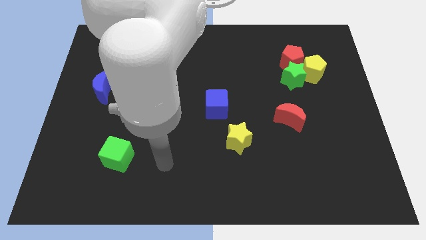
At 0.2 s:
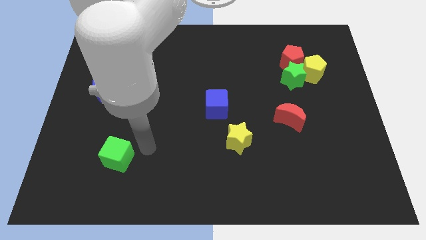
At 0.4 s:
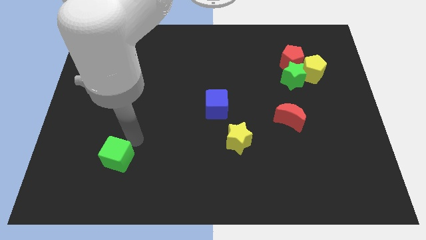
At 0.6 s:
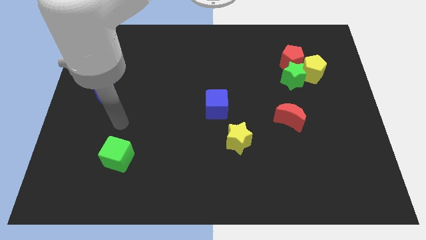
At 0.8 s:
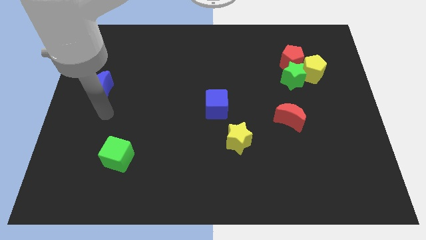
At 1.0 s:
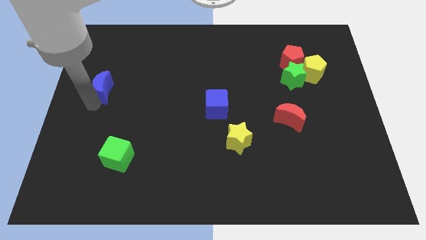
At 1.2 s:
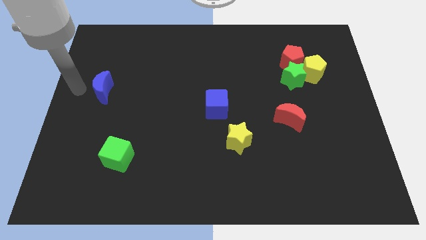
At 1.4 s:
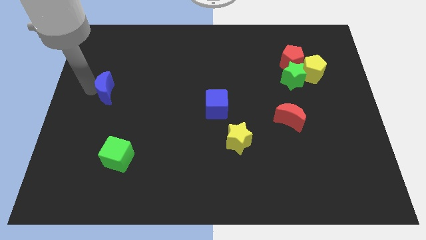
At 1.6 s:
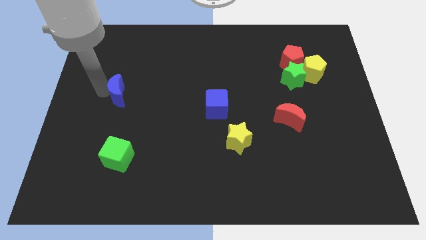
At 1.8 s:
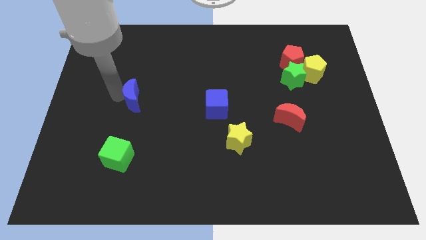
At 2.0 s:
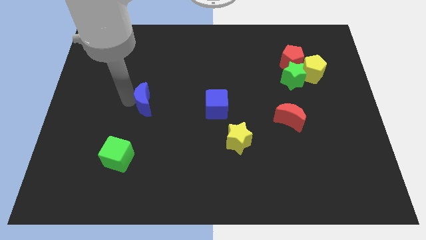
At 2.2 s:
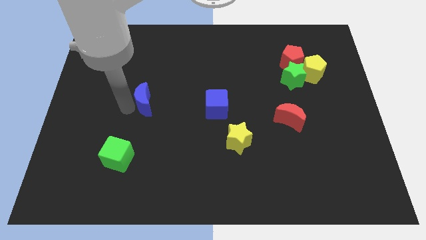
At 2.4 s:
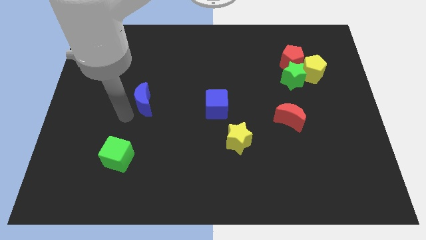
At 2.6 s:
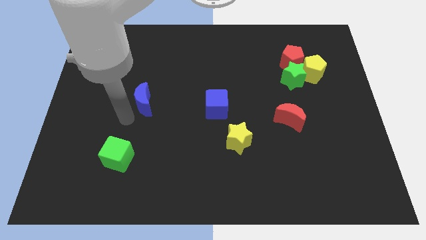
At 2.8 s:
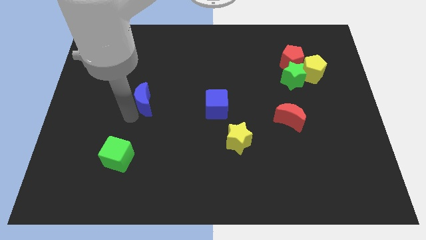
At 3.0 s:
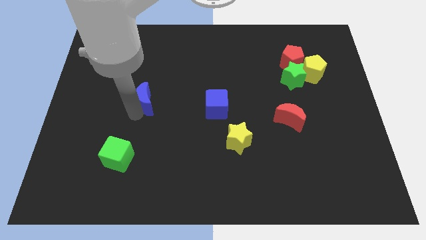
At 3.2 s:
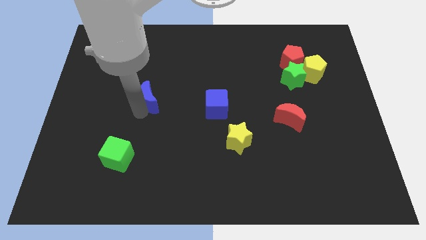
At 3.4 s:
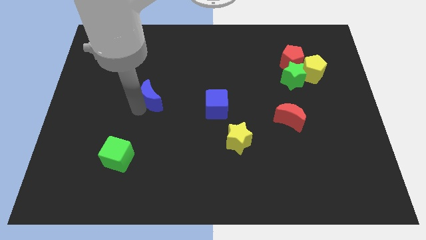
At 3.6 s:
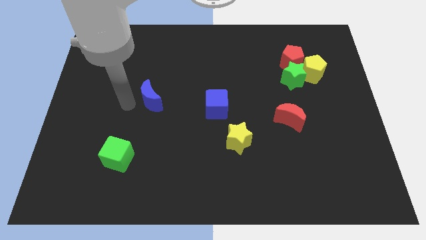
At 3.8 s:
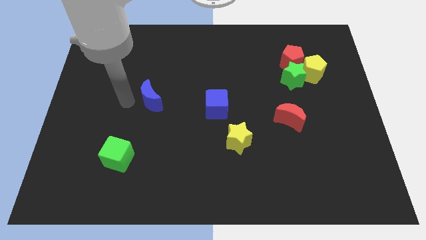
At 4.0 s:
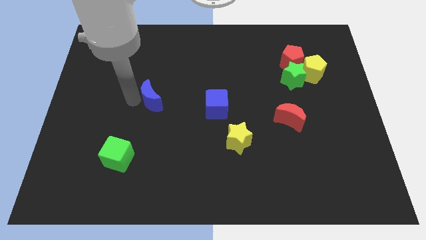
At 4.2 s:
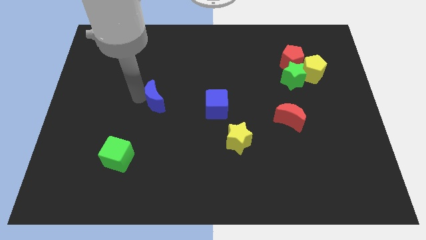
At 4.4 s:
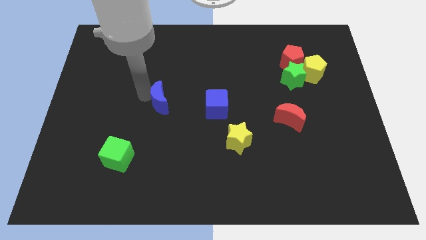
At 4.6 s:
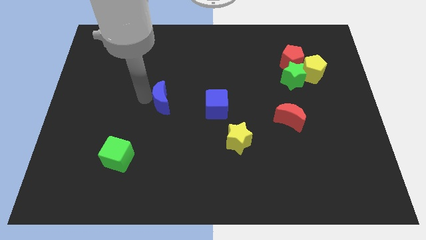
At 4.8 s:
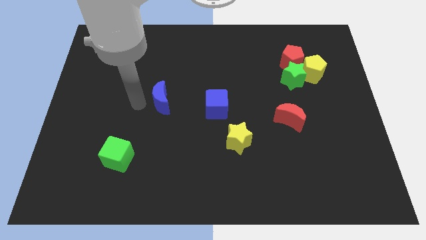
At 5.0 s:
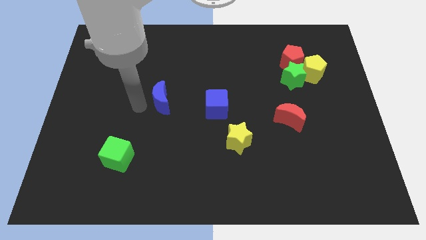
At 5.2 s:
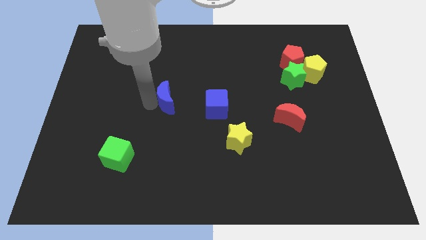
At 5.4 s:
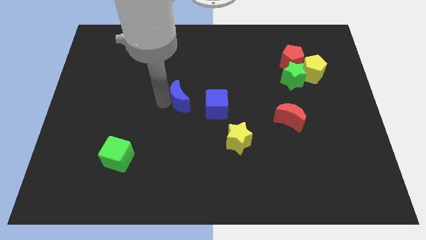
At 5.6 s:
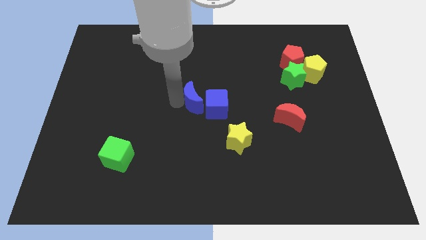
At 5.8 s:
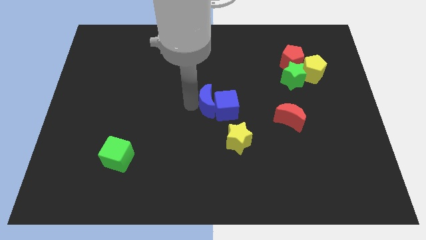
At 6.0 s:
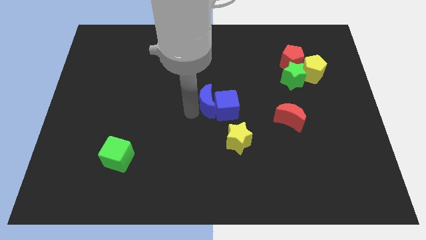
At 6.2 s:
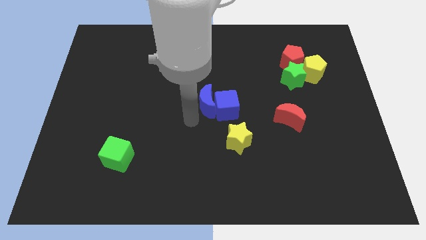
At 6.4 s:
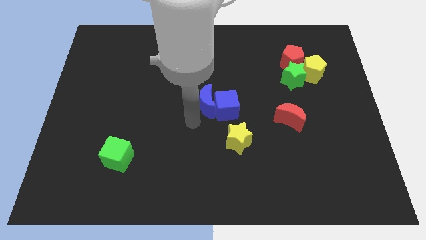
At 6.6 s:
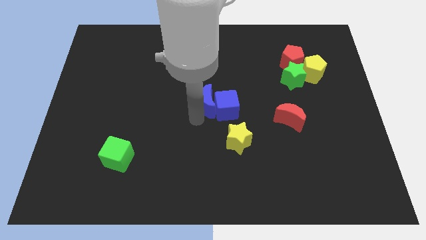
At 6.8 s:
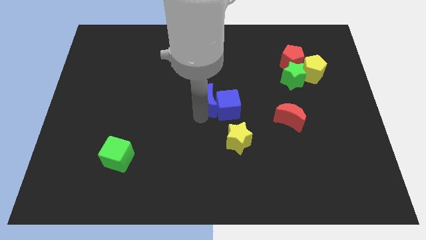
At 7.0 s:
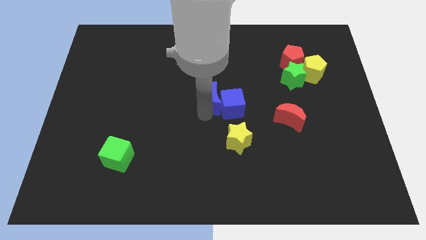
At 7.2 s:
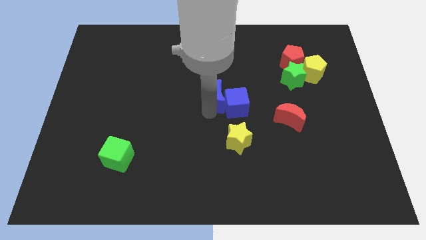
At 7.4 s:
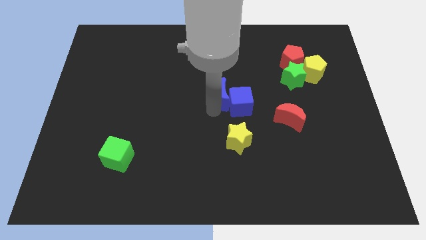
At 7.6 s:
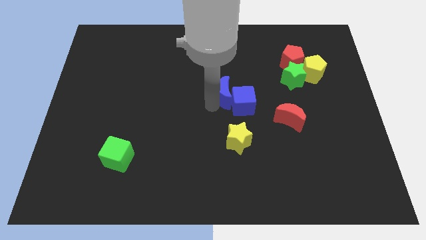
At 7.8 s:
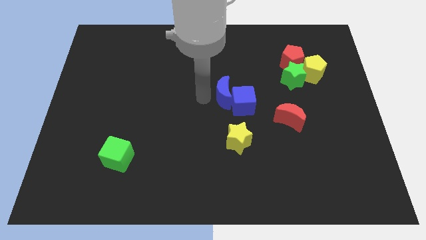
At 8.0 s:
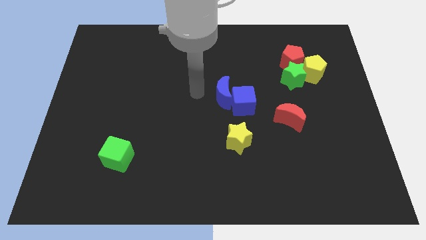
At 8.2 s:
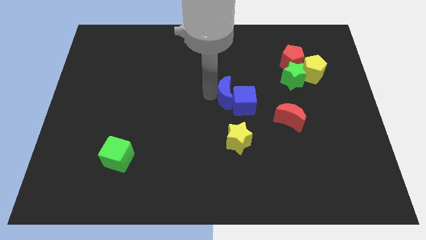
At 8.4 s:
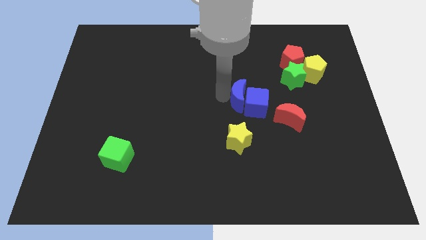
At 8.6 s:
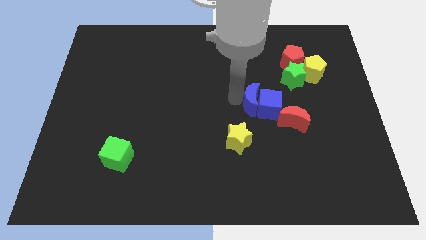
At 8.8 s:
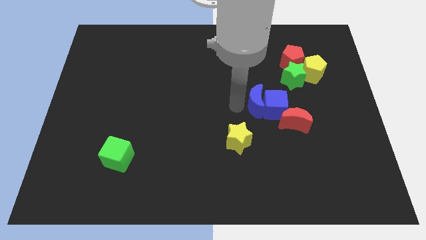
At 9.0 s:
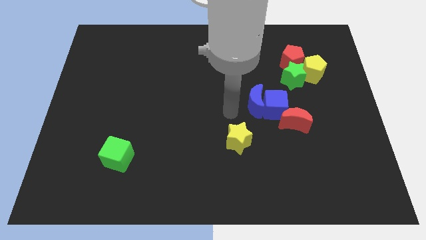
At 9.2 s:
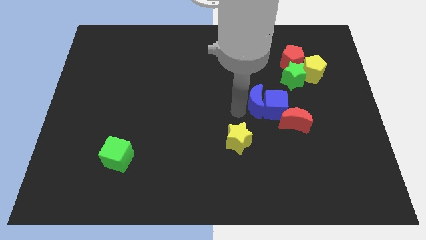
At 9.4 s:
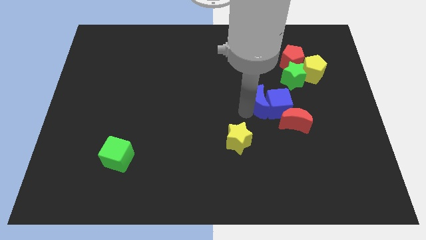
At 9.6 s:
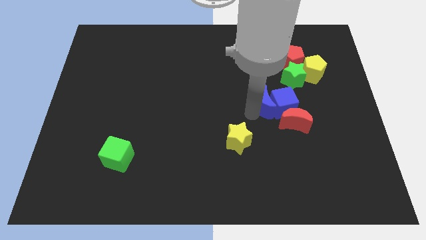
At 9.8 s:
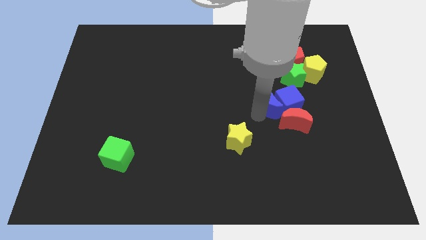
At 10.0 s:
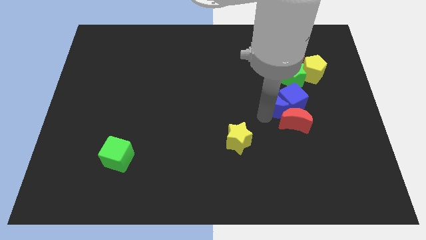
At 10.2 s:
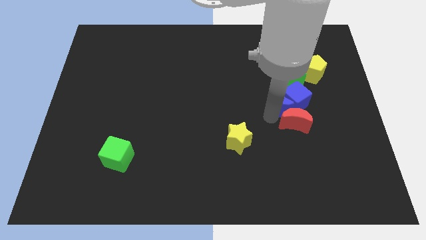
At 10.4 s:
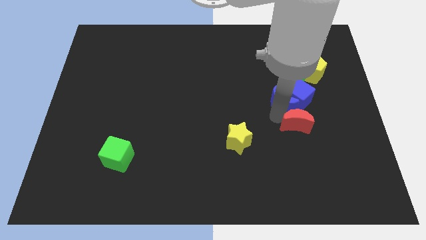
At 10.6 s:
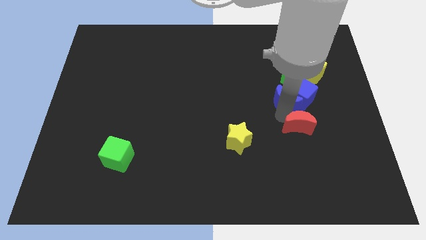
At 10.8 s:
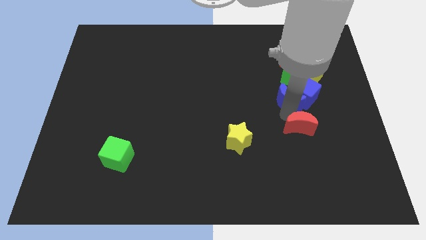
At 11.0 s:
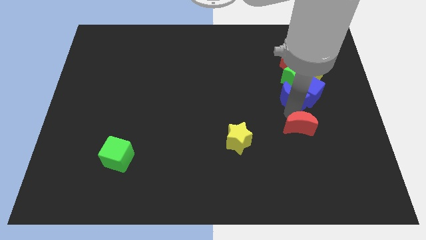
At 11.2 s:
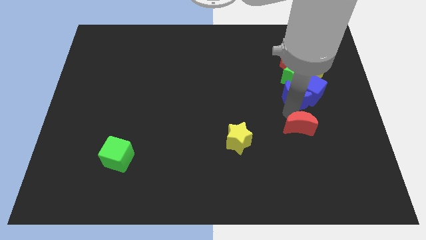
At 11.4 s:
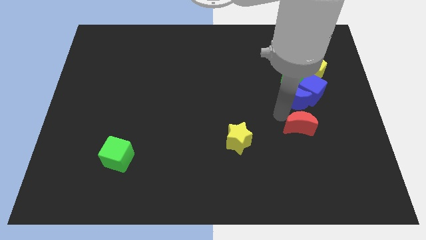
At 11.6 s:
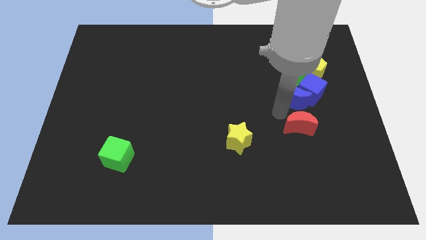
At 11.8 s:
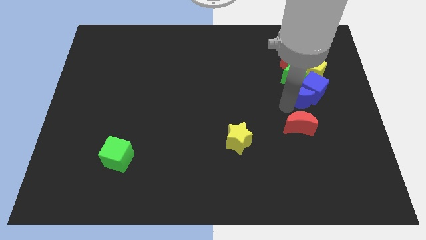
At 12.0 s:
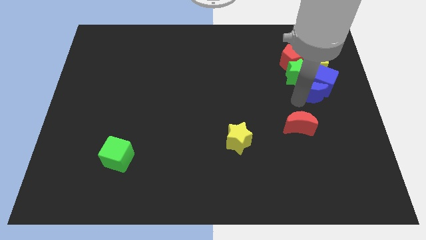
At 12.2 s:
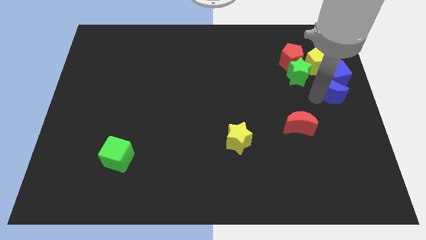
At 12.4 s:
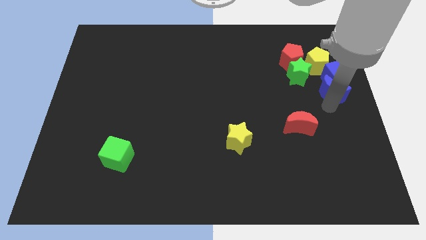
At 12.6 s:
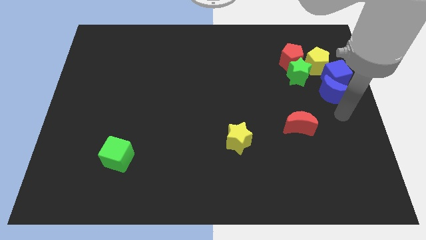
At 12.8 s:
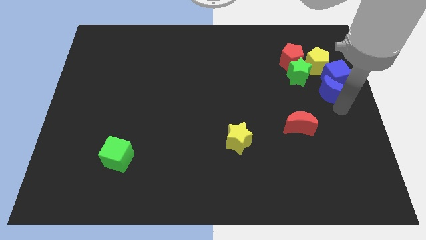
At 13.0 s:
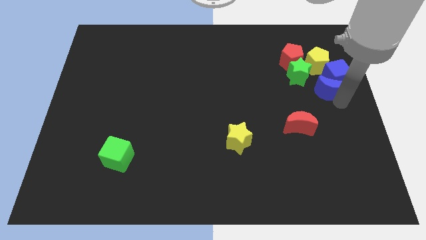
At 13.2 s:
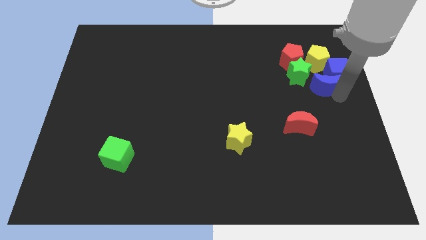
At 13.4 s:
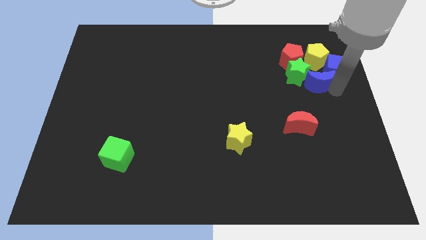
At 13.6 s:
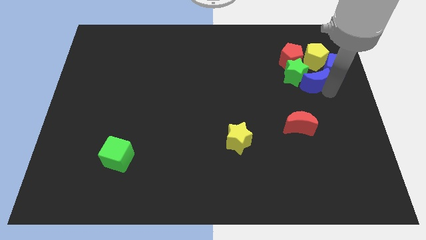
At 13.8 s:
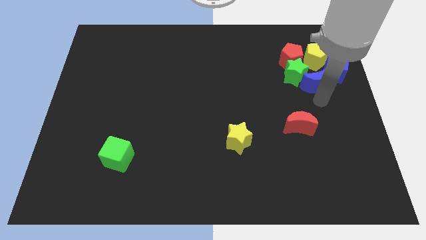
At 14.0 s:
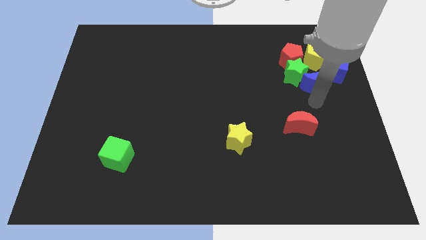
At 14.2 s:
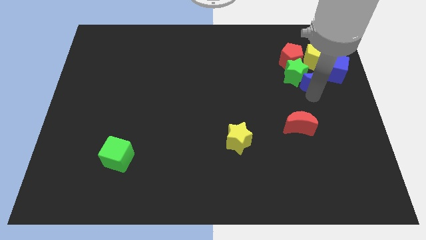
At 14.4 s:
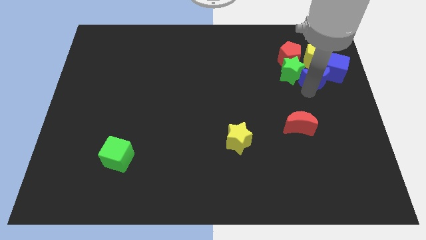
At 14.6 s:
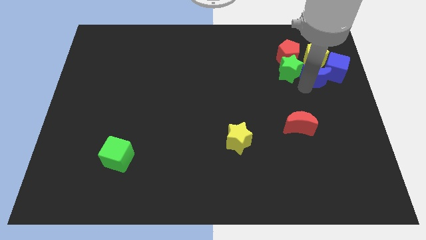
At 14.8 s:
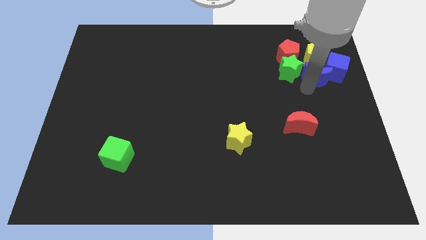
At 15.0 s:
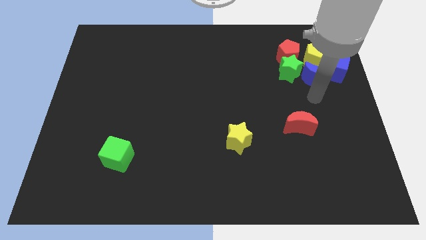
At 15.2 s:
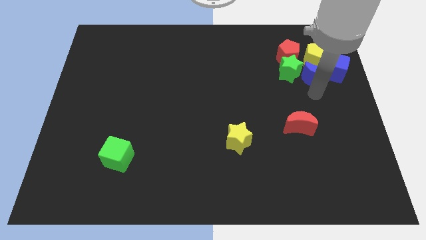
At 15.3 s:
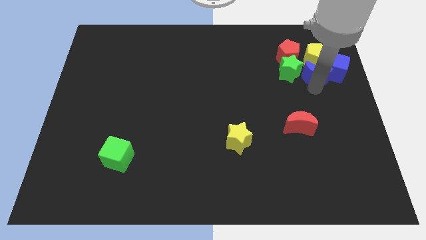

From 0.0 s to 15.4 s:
put the blue moon to the yellow pentagon
